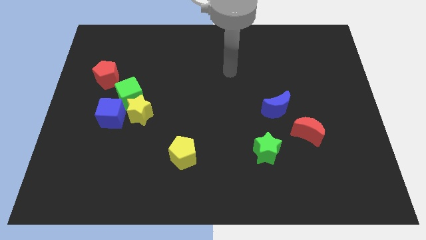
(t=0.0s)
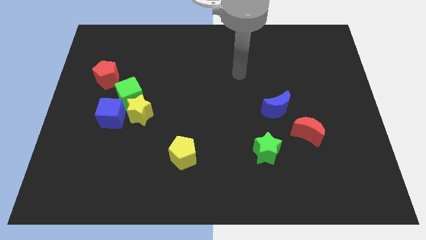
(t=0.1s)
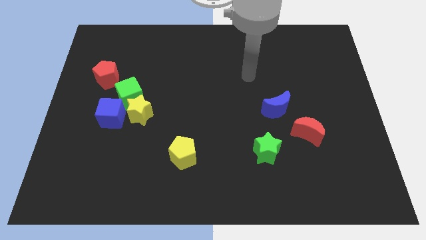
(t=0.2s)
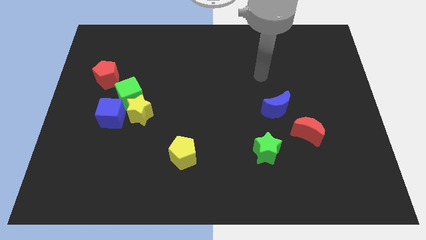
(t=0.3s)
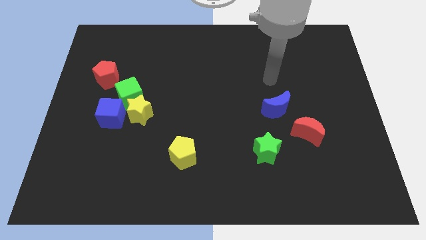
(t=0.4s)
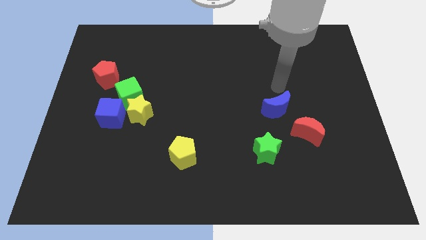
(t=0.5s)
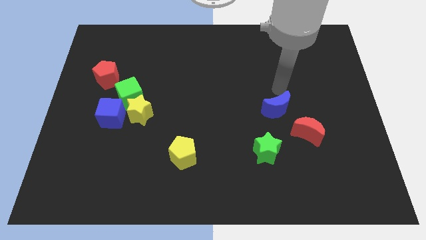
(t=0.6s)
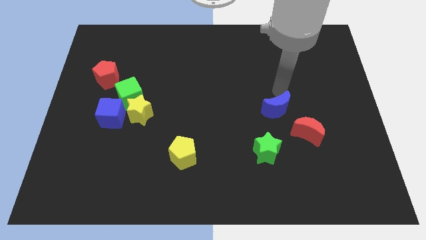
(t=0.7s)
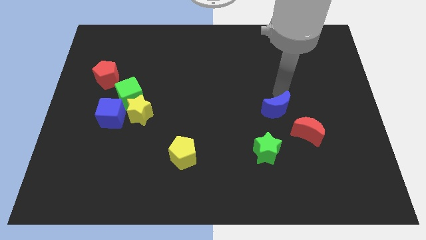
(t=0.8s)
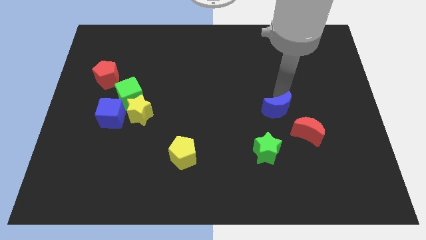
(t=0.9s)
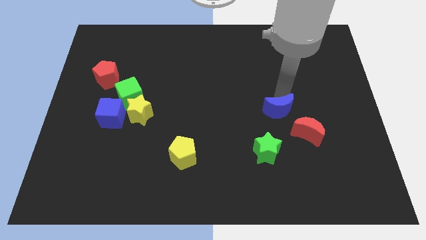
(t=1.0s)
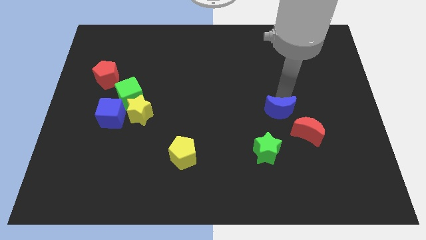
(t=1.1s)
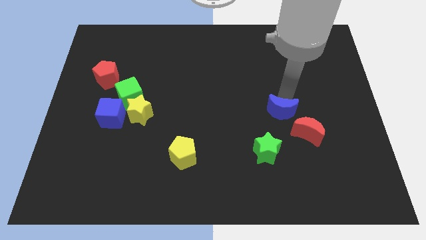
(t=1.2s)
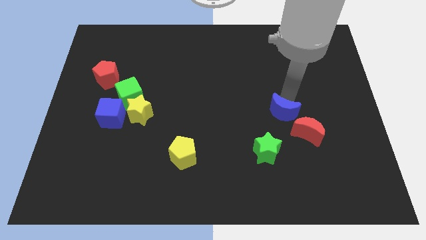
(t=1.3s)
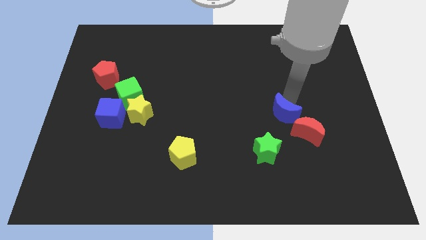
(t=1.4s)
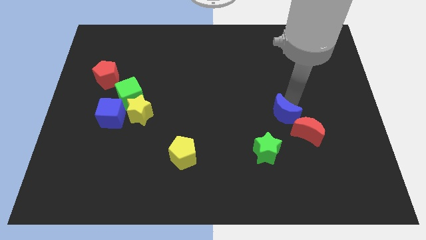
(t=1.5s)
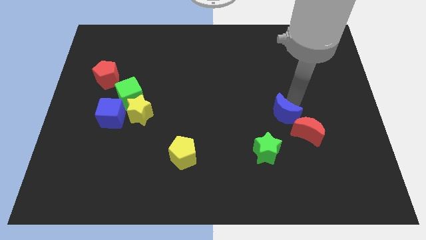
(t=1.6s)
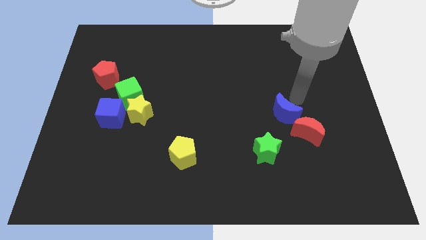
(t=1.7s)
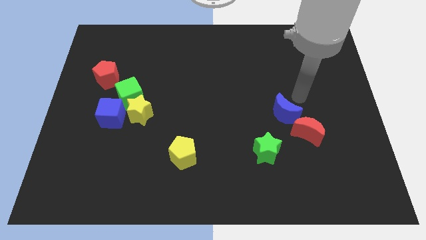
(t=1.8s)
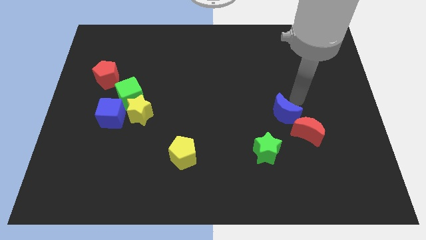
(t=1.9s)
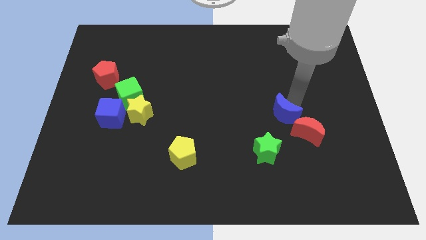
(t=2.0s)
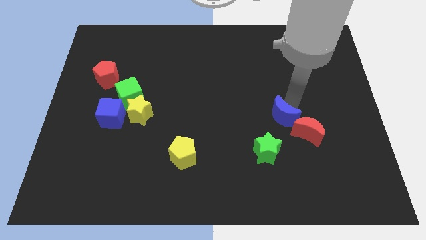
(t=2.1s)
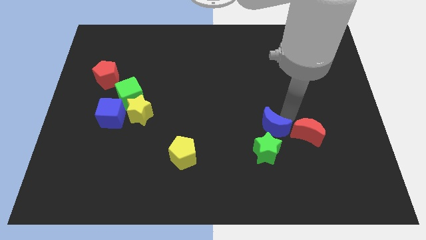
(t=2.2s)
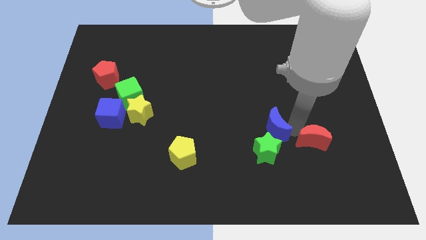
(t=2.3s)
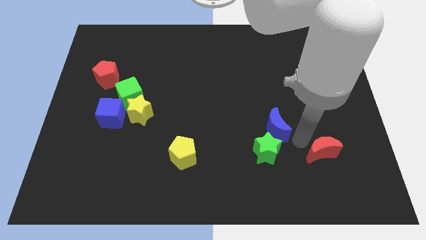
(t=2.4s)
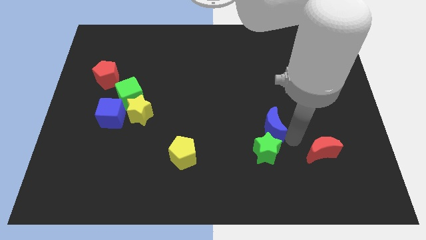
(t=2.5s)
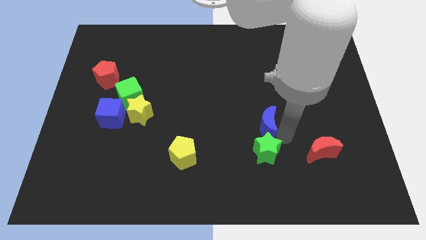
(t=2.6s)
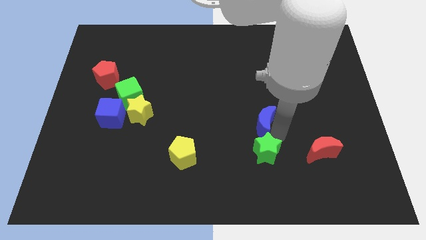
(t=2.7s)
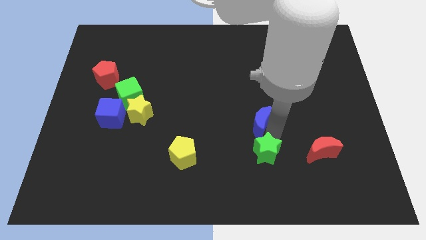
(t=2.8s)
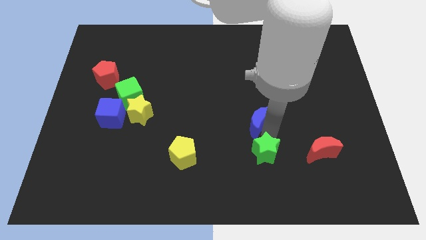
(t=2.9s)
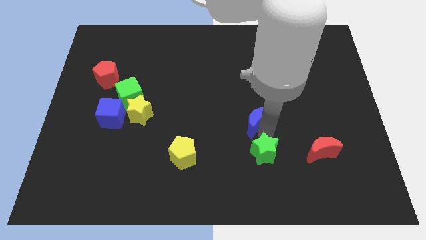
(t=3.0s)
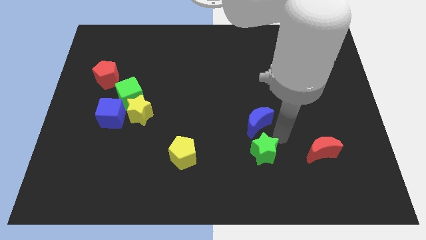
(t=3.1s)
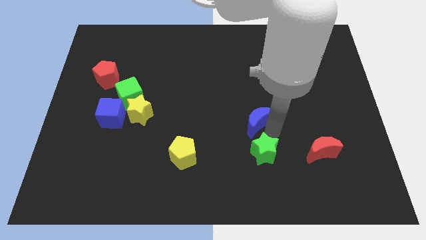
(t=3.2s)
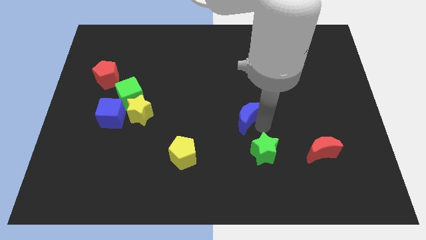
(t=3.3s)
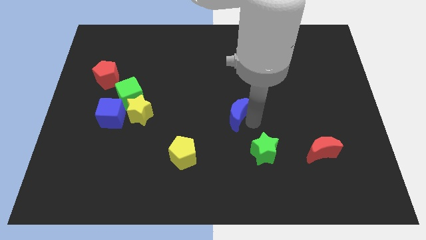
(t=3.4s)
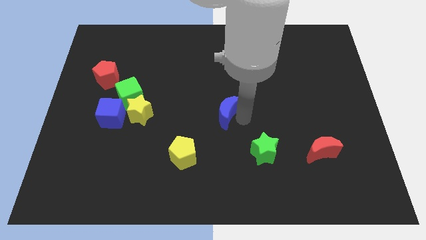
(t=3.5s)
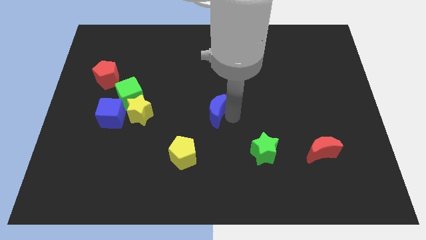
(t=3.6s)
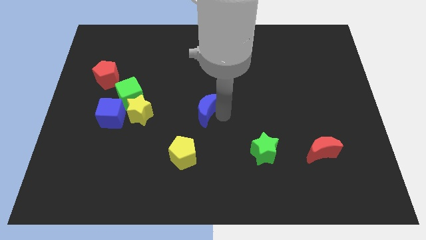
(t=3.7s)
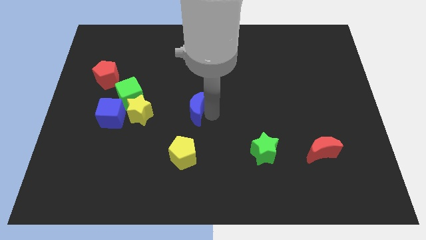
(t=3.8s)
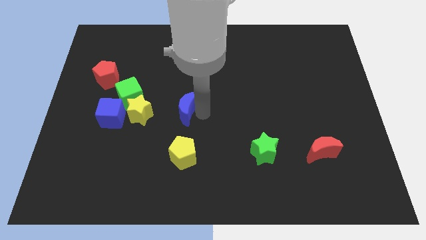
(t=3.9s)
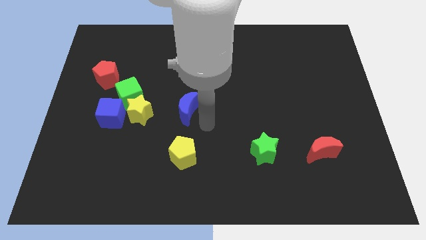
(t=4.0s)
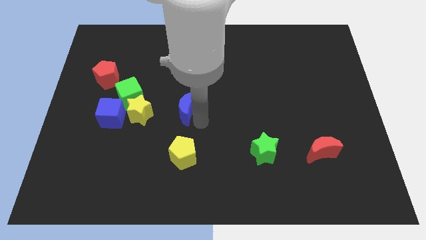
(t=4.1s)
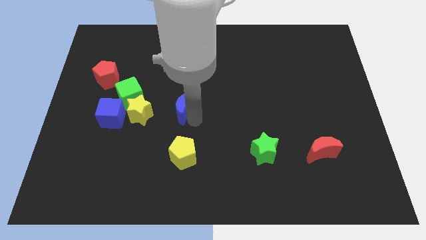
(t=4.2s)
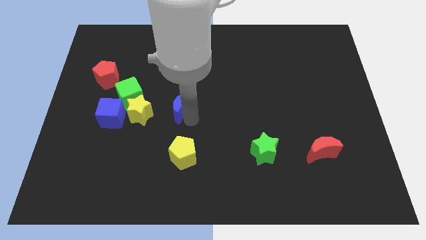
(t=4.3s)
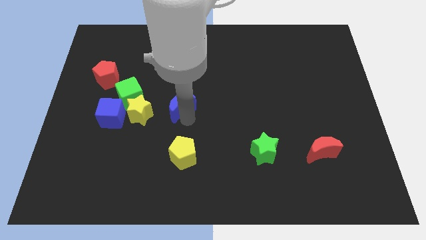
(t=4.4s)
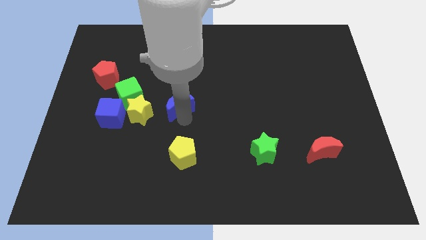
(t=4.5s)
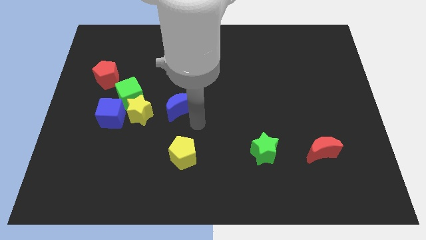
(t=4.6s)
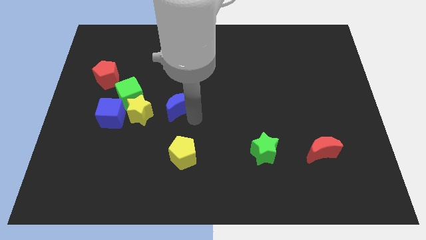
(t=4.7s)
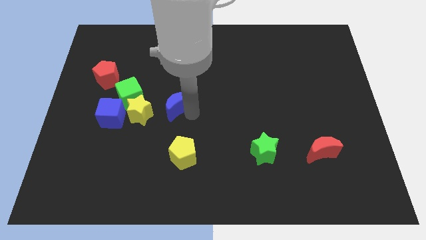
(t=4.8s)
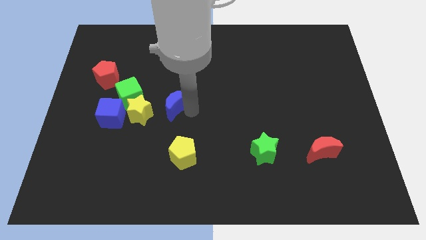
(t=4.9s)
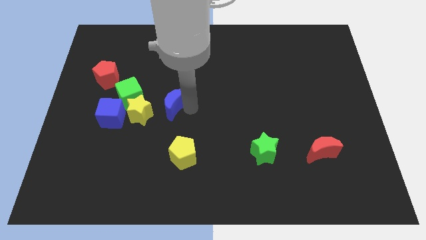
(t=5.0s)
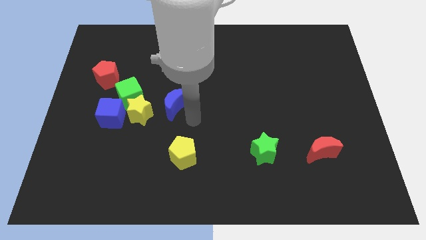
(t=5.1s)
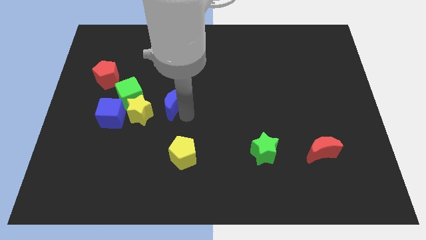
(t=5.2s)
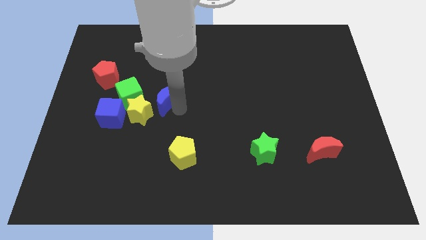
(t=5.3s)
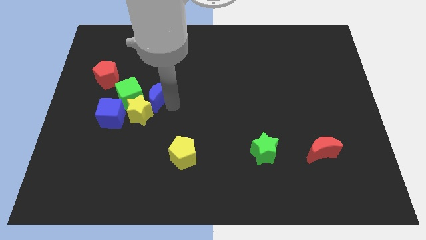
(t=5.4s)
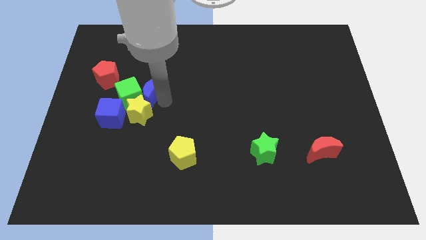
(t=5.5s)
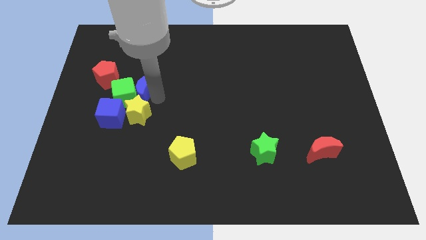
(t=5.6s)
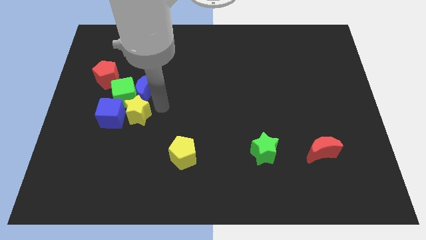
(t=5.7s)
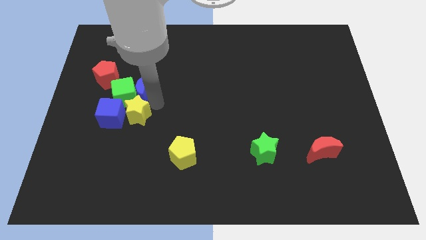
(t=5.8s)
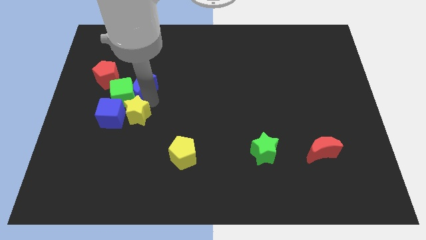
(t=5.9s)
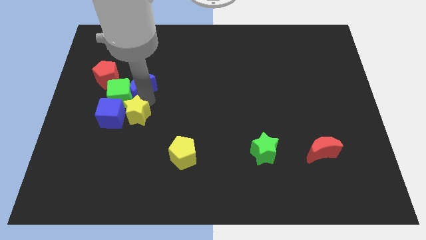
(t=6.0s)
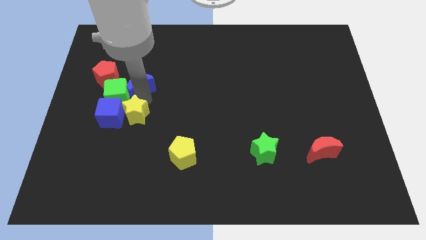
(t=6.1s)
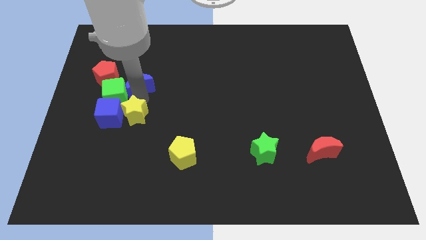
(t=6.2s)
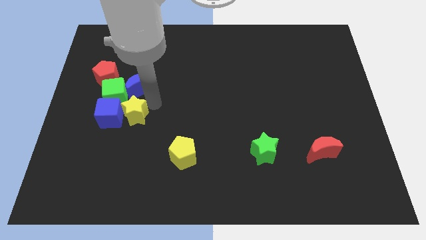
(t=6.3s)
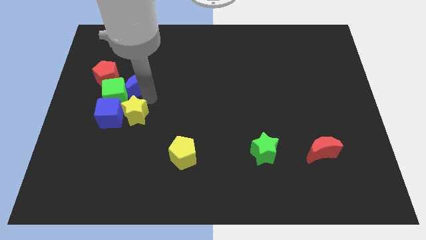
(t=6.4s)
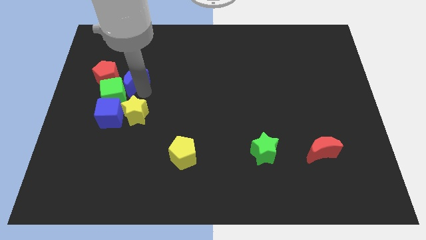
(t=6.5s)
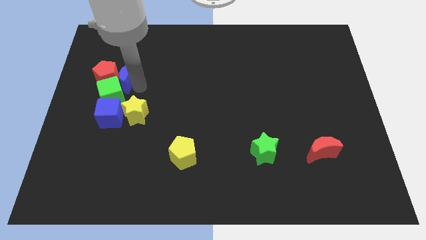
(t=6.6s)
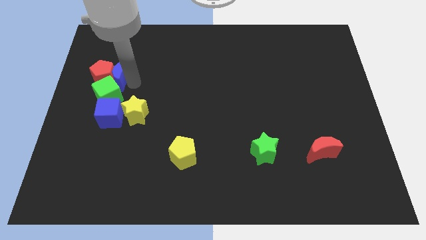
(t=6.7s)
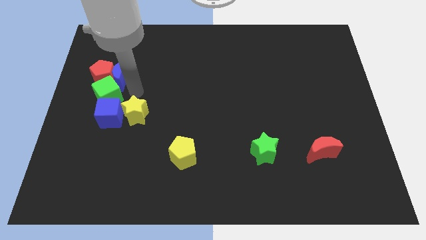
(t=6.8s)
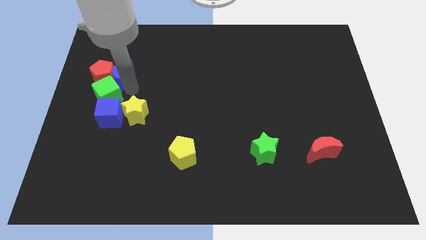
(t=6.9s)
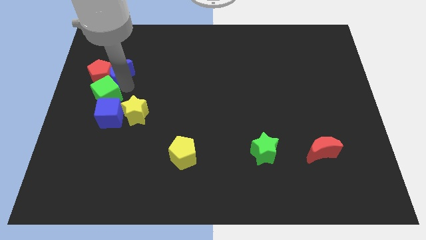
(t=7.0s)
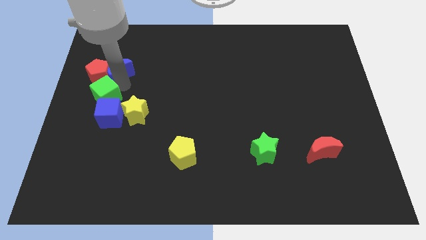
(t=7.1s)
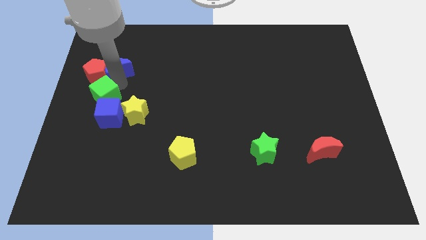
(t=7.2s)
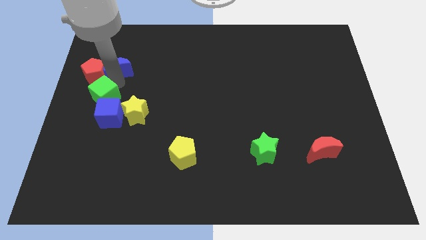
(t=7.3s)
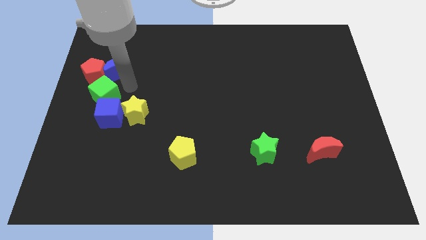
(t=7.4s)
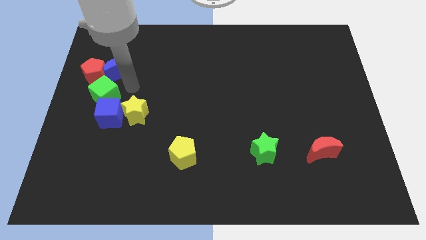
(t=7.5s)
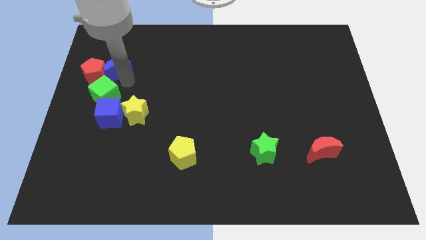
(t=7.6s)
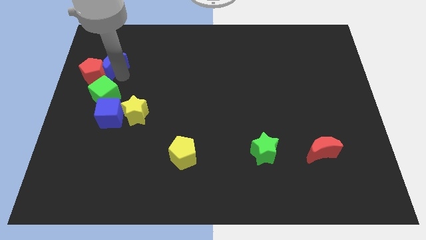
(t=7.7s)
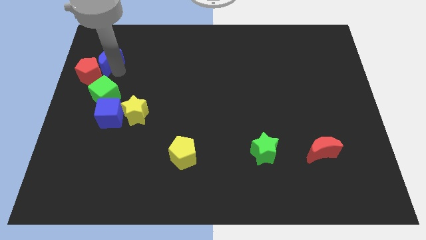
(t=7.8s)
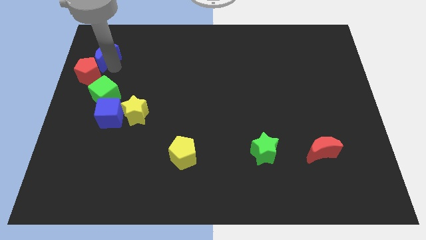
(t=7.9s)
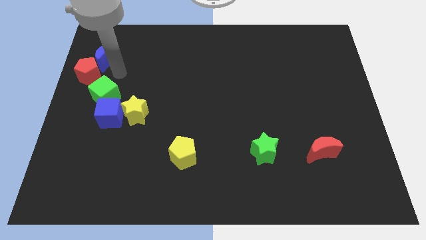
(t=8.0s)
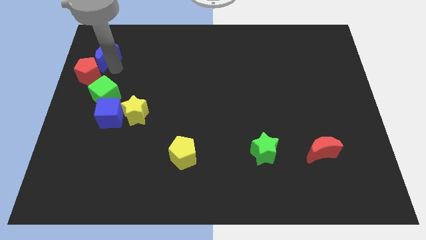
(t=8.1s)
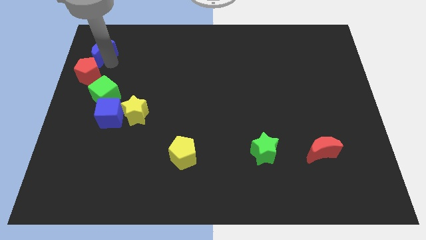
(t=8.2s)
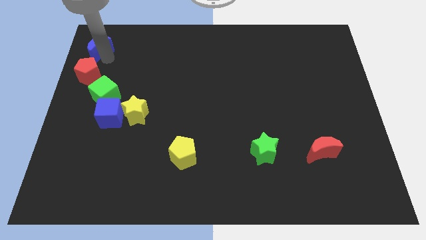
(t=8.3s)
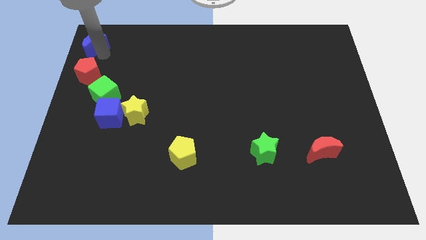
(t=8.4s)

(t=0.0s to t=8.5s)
push the blue moon to the upper left corner
